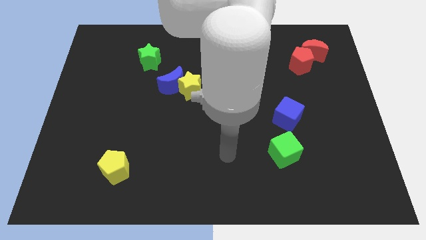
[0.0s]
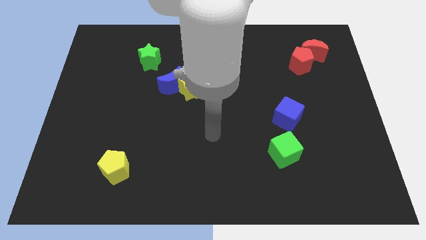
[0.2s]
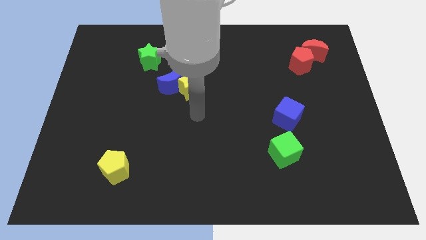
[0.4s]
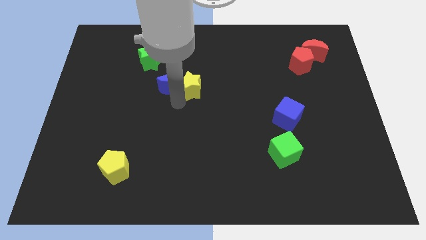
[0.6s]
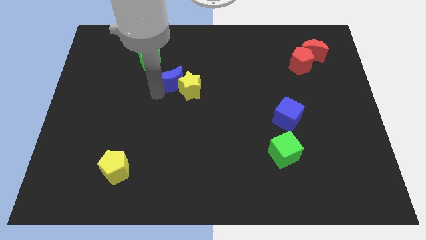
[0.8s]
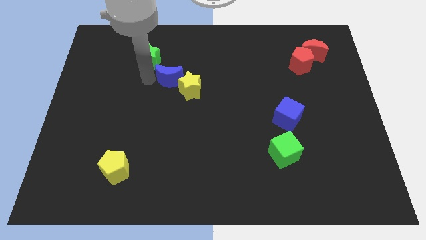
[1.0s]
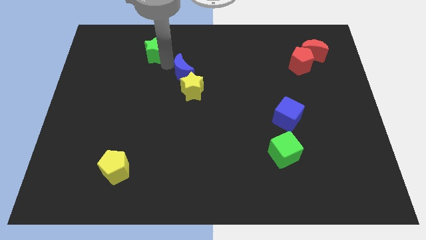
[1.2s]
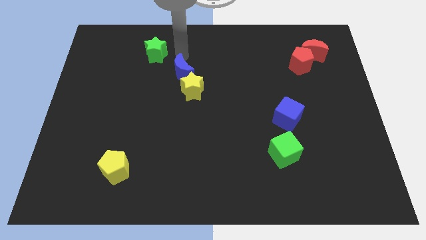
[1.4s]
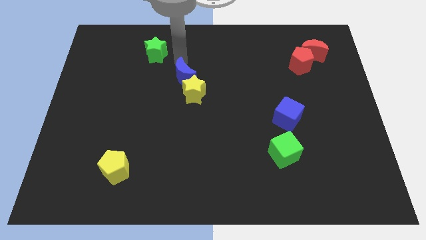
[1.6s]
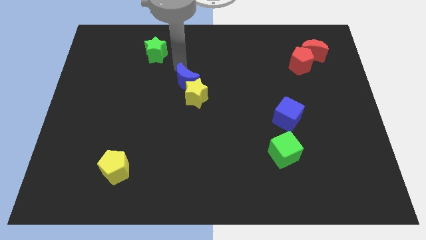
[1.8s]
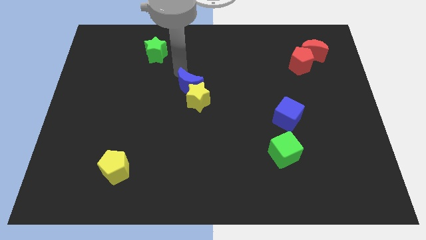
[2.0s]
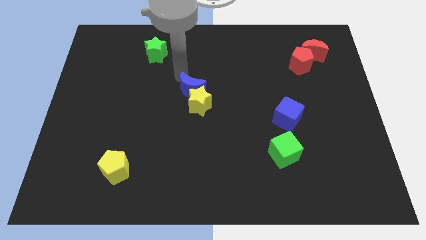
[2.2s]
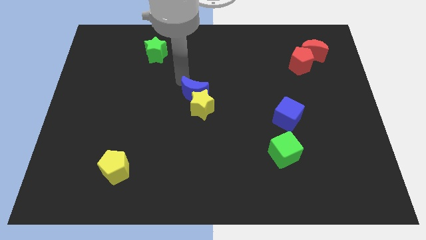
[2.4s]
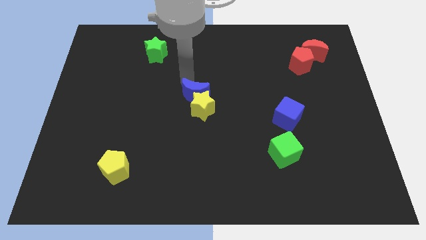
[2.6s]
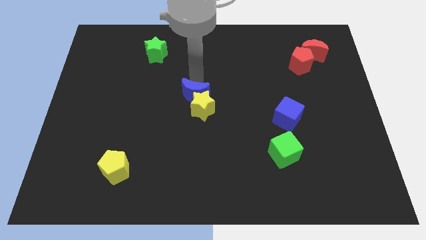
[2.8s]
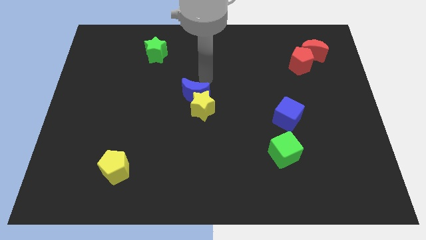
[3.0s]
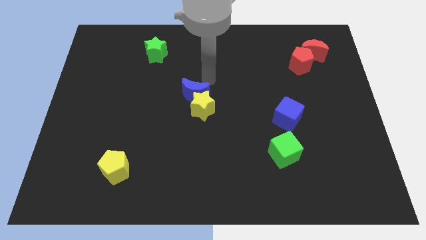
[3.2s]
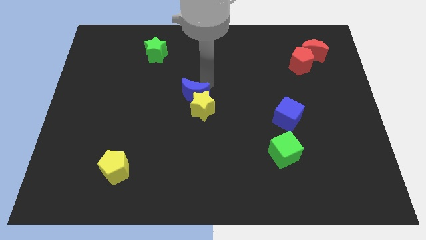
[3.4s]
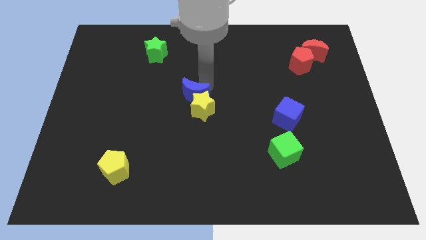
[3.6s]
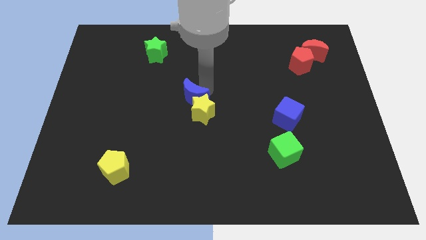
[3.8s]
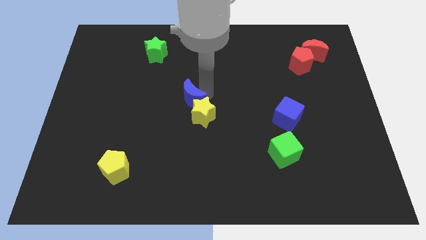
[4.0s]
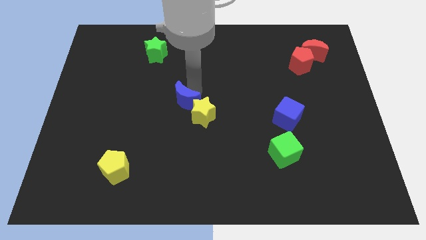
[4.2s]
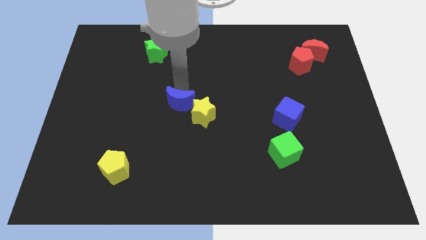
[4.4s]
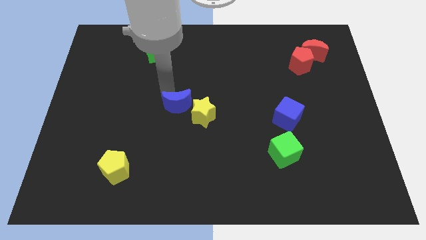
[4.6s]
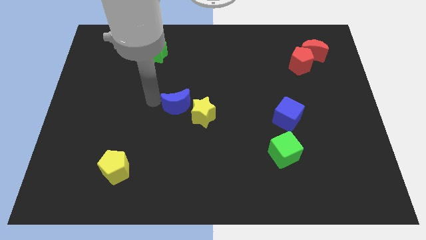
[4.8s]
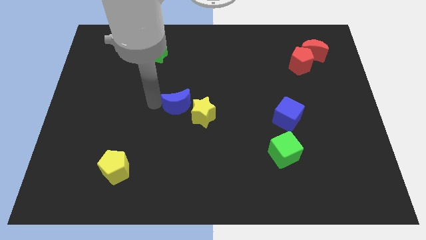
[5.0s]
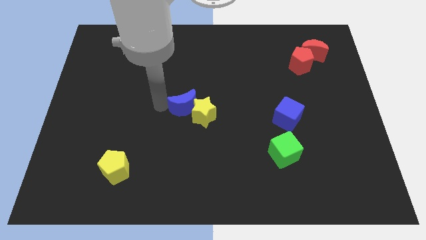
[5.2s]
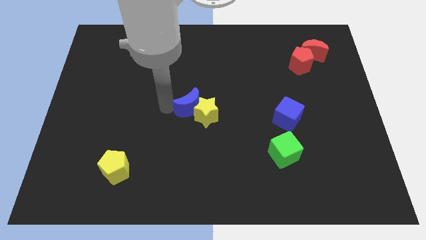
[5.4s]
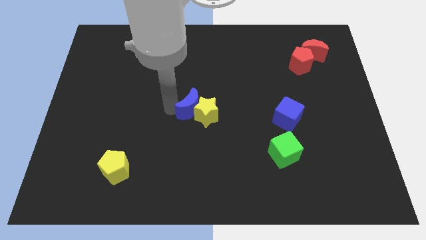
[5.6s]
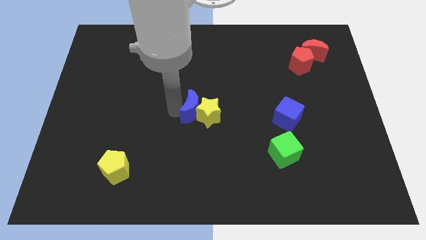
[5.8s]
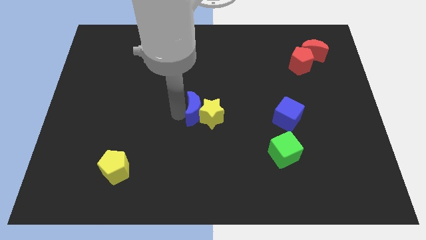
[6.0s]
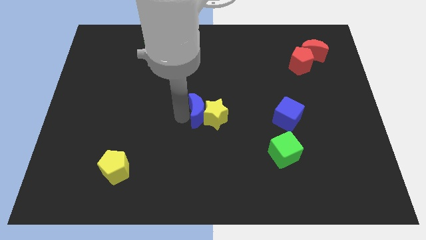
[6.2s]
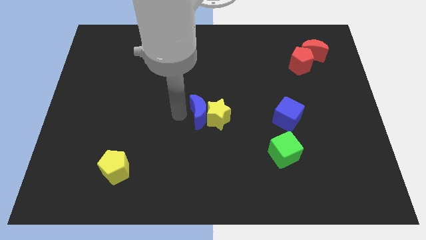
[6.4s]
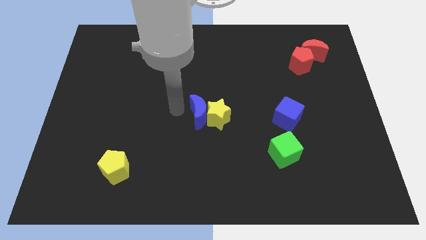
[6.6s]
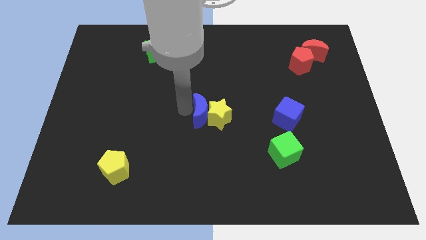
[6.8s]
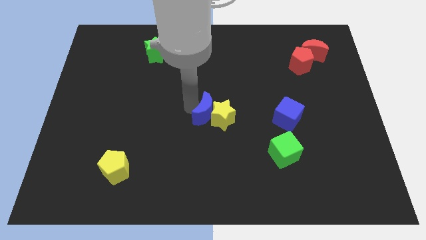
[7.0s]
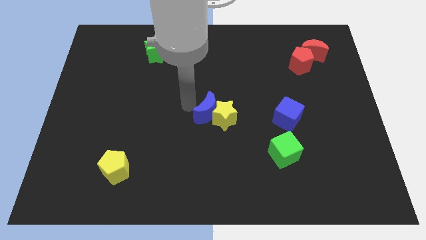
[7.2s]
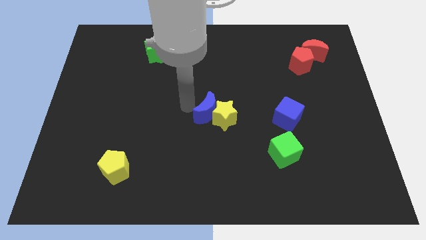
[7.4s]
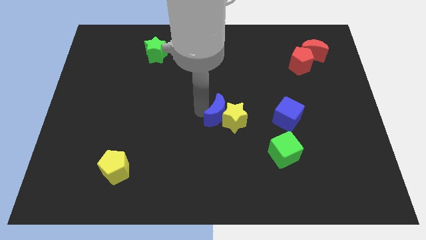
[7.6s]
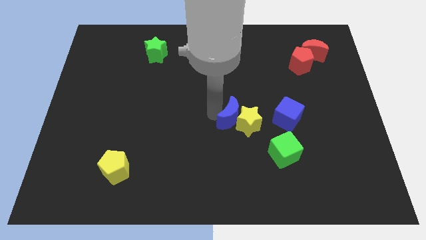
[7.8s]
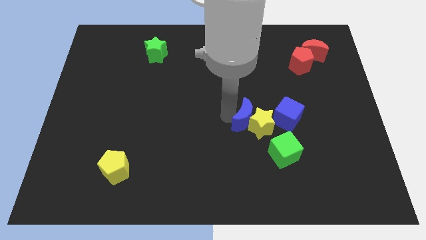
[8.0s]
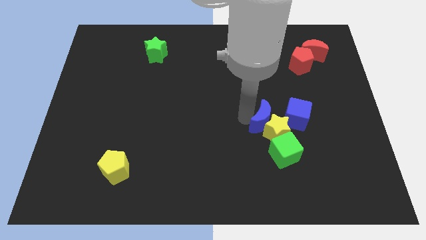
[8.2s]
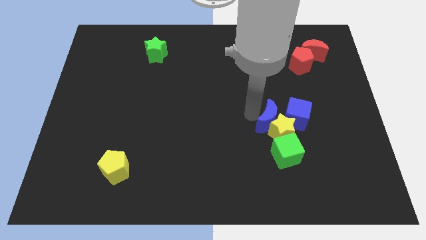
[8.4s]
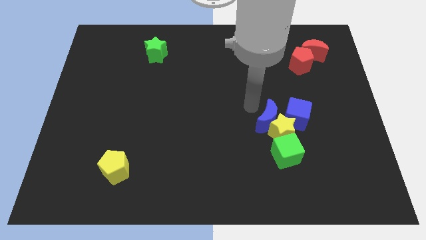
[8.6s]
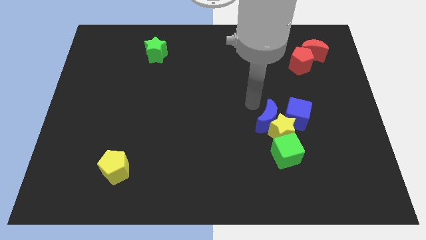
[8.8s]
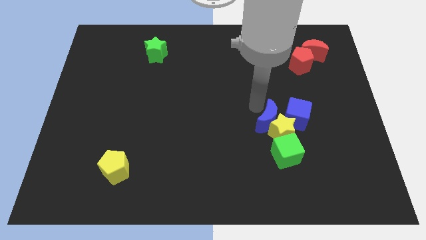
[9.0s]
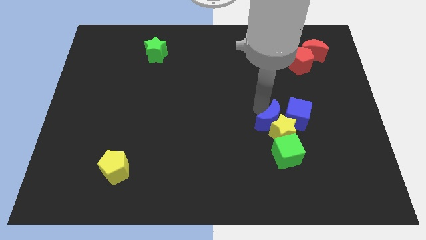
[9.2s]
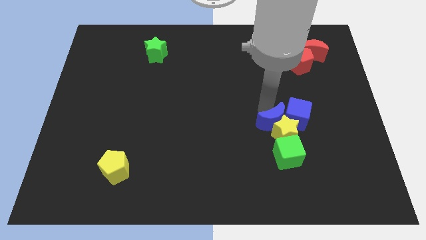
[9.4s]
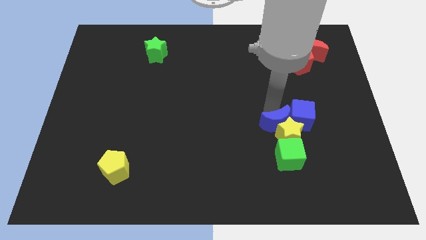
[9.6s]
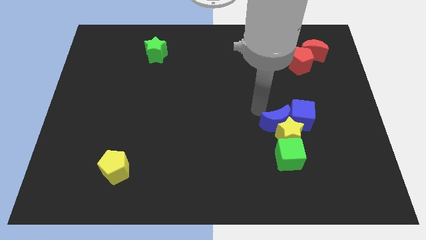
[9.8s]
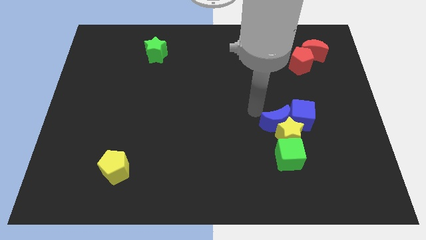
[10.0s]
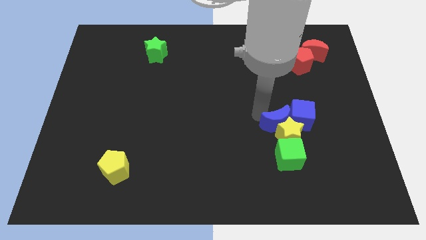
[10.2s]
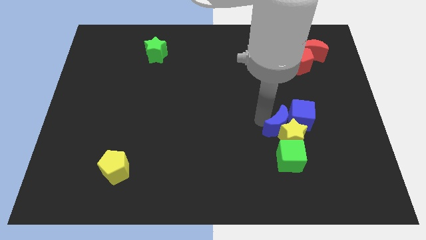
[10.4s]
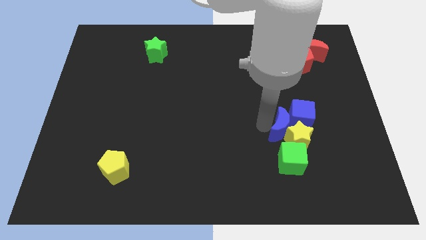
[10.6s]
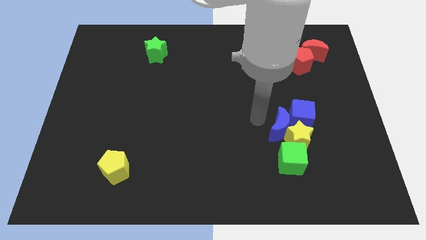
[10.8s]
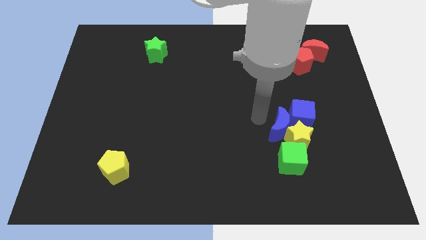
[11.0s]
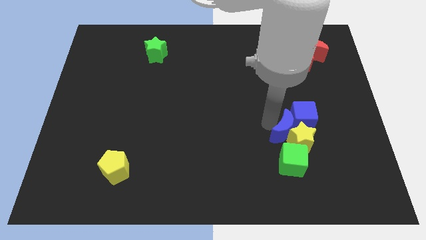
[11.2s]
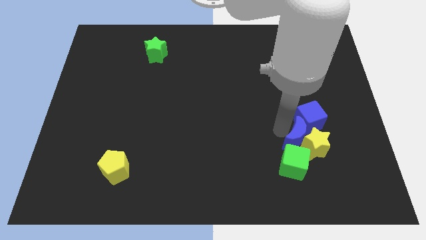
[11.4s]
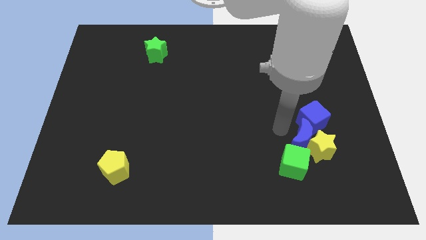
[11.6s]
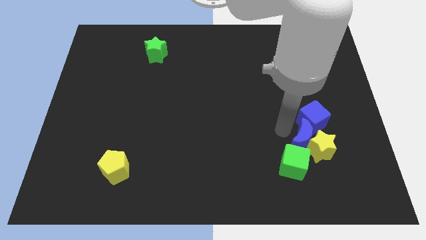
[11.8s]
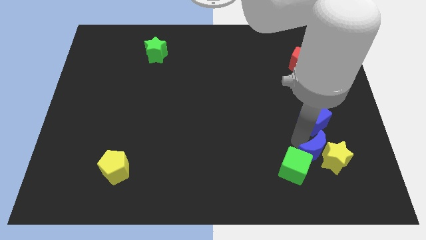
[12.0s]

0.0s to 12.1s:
put the blue moon to the right side of the green cube
